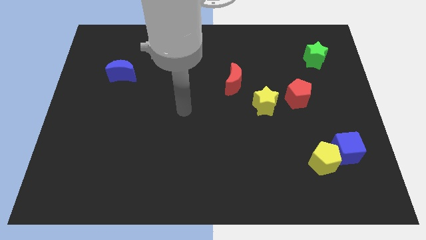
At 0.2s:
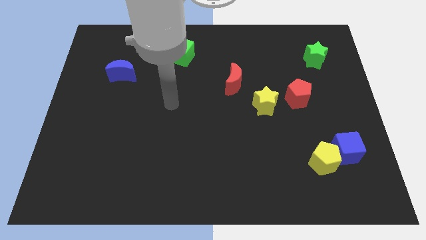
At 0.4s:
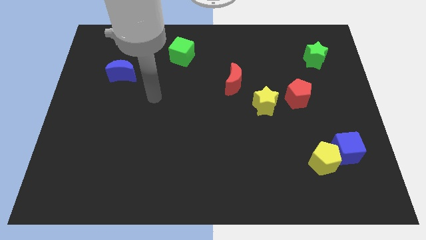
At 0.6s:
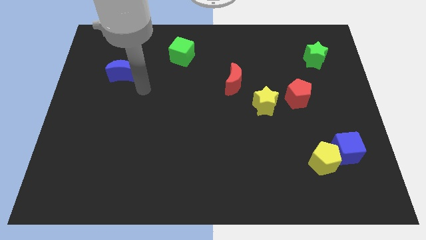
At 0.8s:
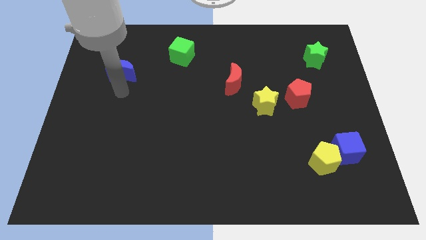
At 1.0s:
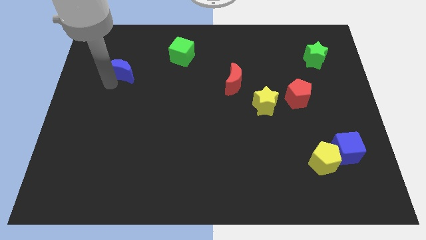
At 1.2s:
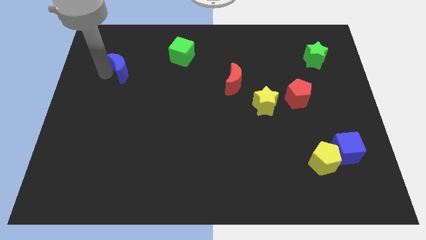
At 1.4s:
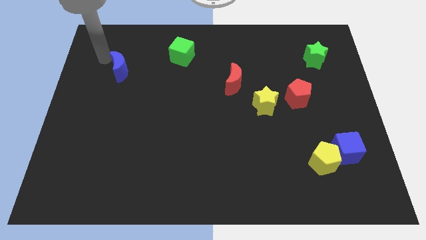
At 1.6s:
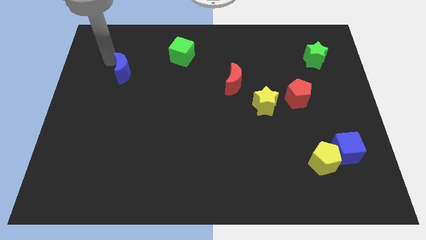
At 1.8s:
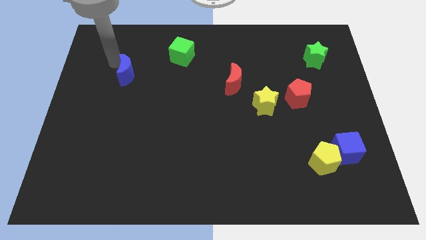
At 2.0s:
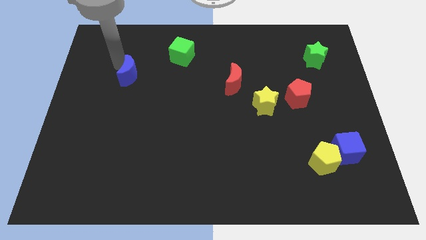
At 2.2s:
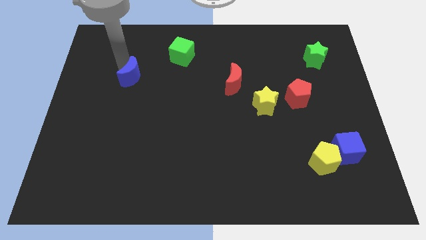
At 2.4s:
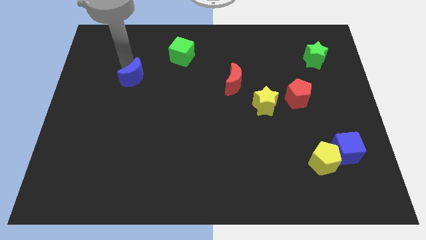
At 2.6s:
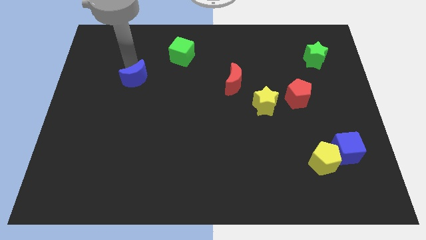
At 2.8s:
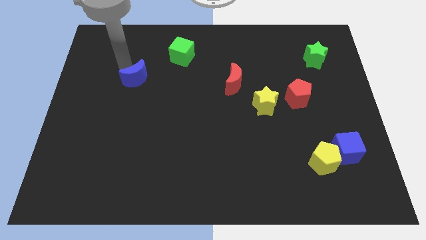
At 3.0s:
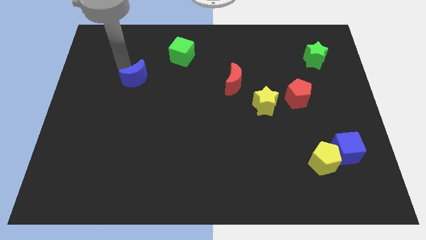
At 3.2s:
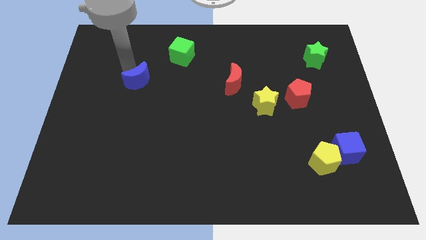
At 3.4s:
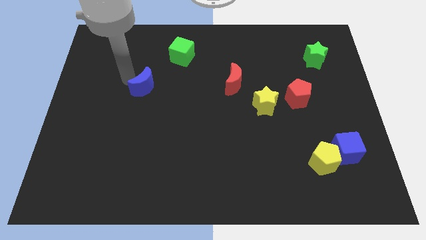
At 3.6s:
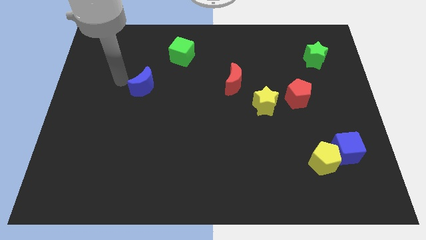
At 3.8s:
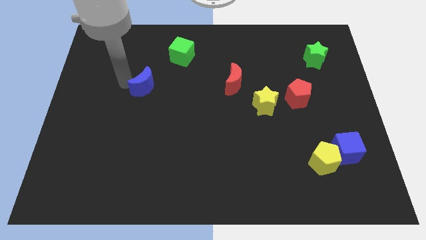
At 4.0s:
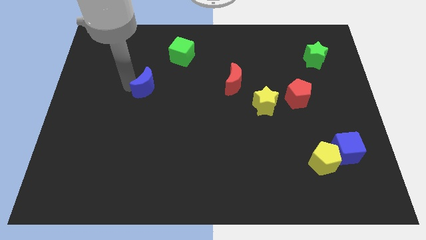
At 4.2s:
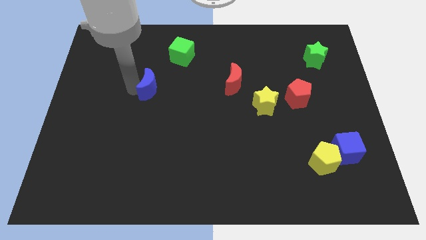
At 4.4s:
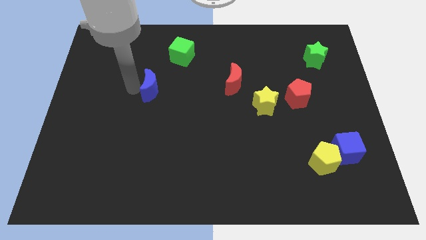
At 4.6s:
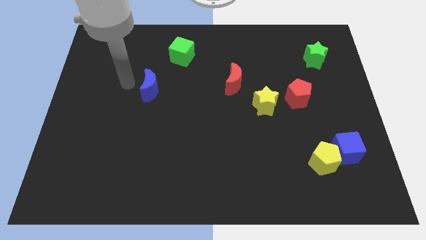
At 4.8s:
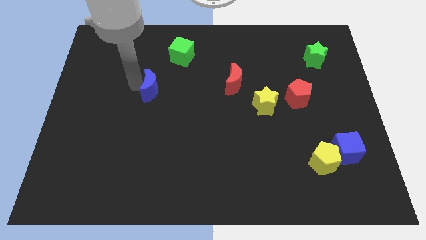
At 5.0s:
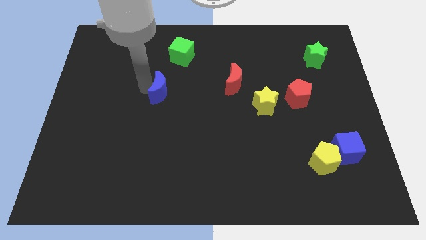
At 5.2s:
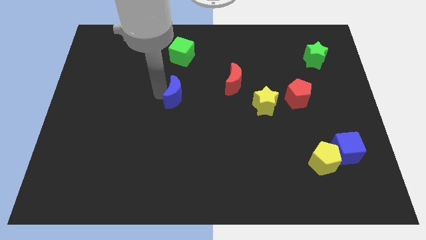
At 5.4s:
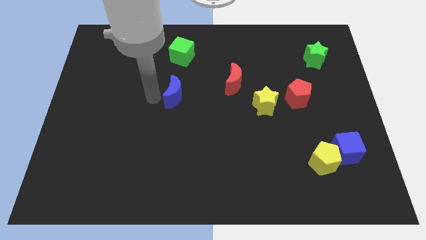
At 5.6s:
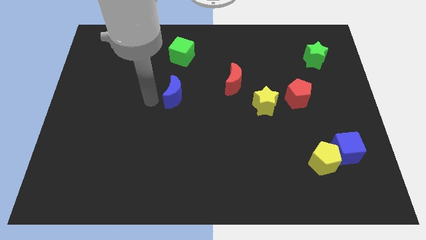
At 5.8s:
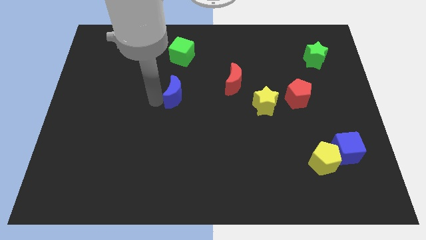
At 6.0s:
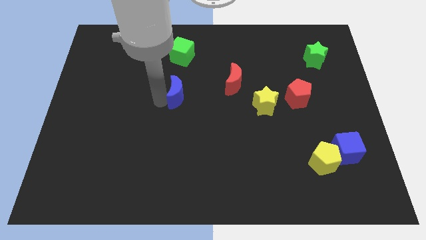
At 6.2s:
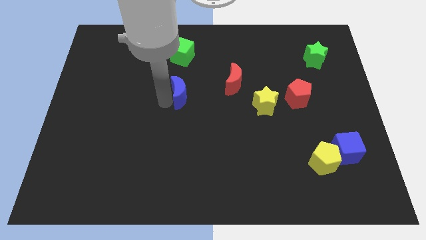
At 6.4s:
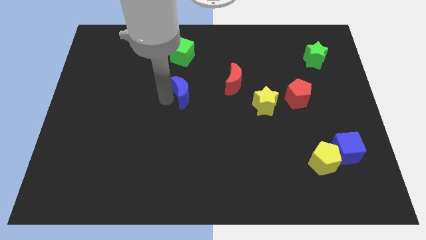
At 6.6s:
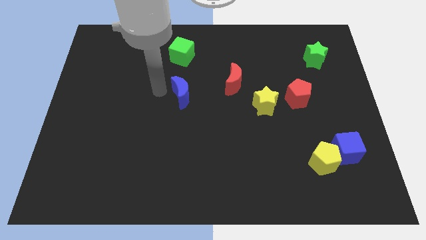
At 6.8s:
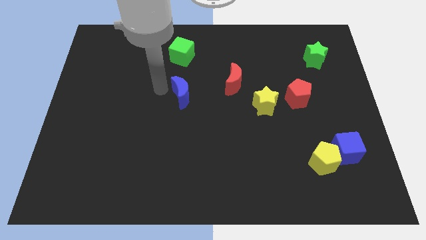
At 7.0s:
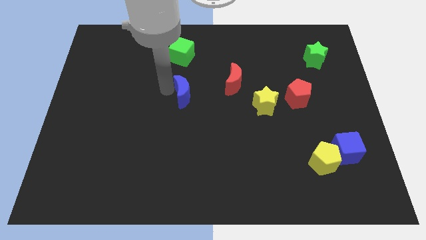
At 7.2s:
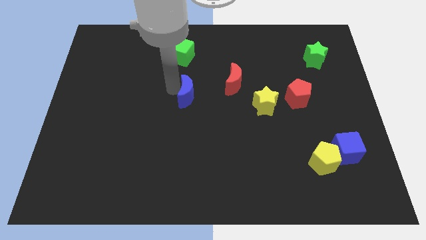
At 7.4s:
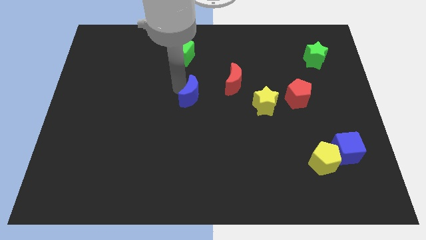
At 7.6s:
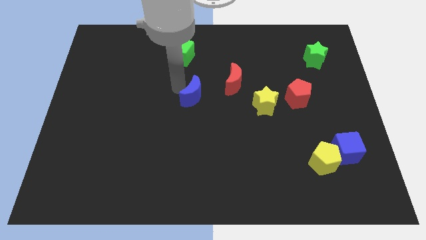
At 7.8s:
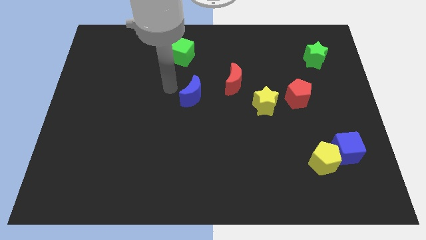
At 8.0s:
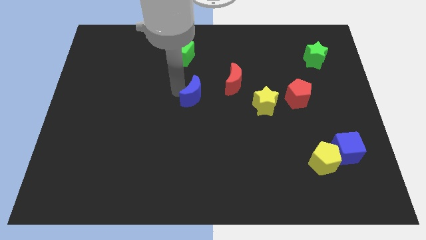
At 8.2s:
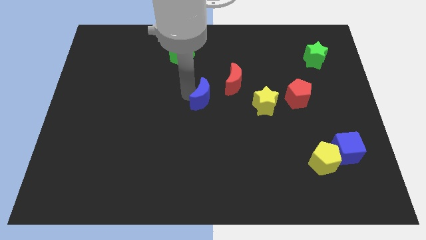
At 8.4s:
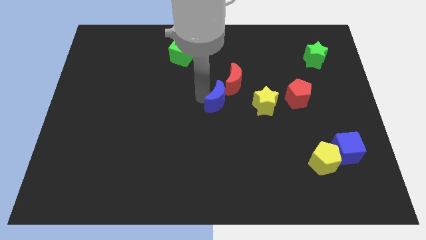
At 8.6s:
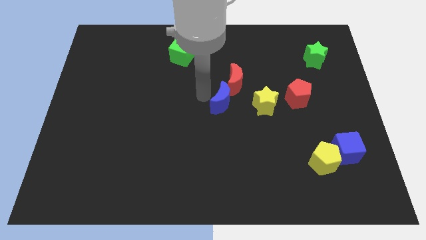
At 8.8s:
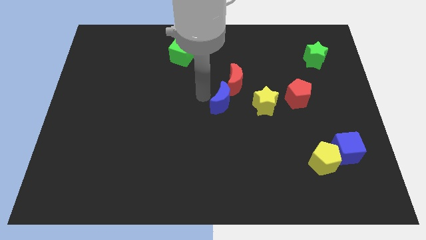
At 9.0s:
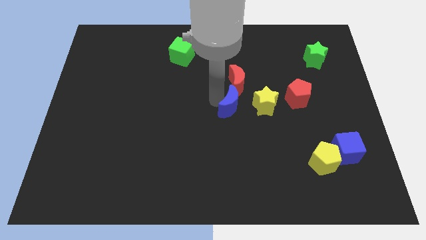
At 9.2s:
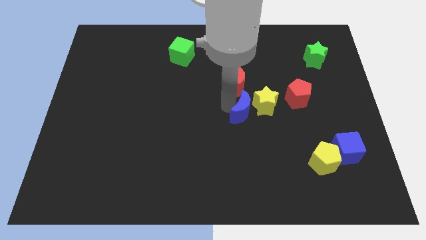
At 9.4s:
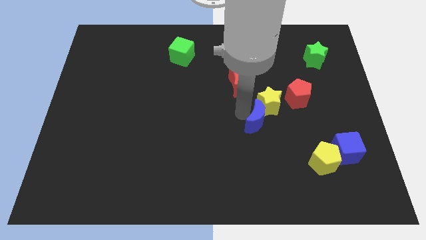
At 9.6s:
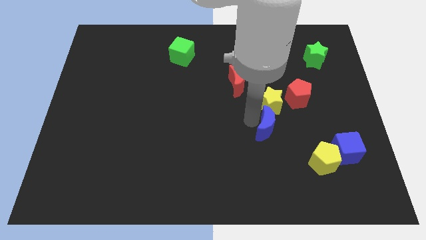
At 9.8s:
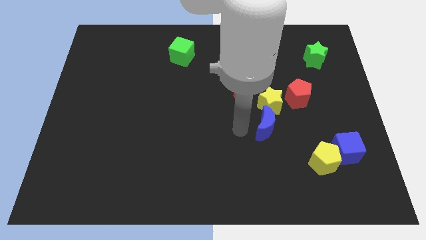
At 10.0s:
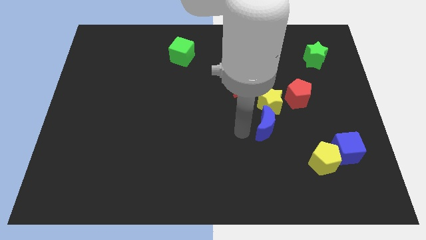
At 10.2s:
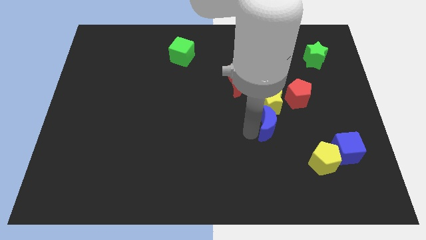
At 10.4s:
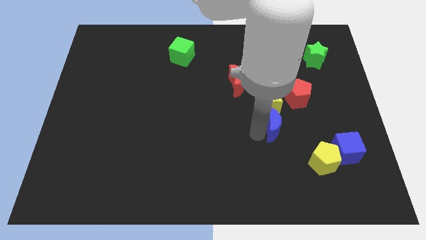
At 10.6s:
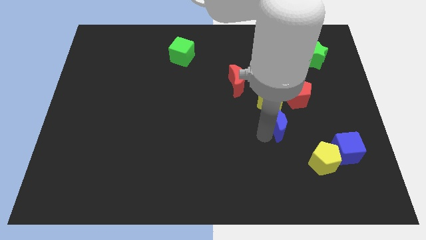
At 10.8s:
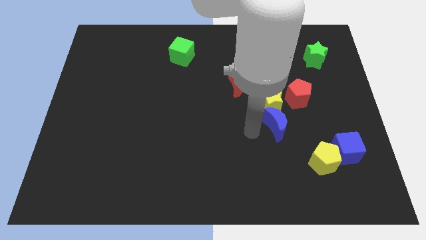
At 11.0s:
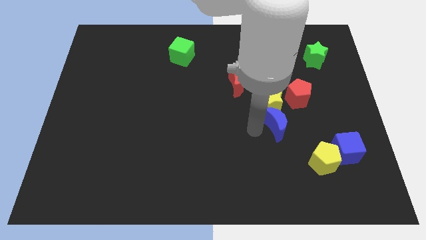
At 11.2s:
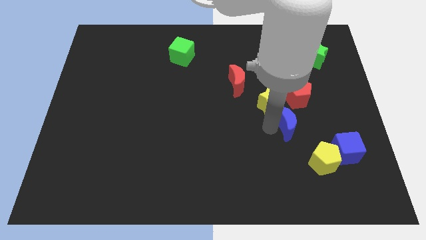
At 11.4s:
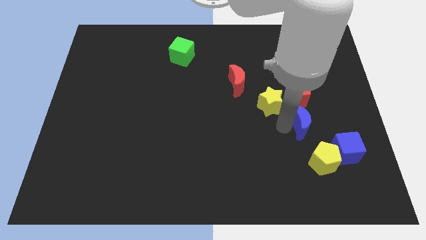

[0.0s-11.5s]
put the blue moon to the top side of the yellow pentagon
